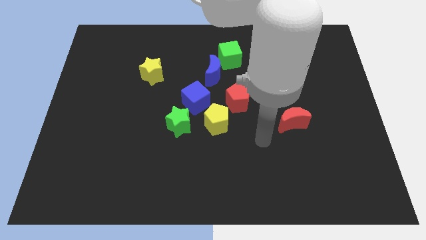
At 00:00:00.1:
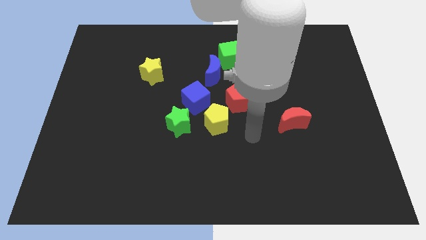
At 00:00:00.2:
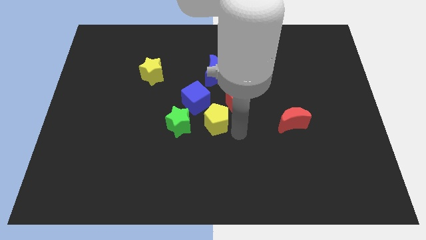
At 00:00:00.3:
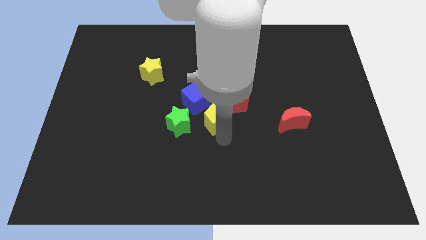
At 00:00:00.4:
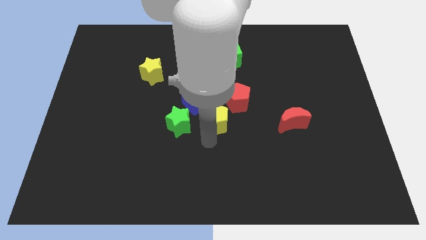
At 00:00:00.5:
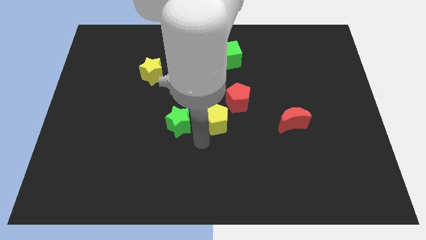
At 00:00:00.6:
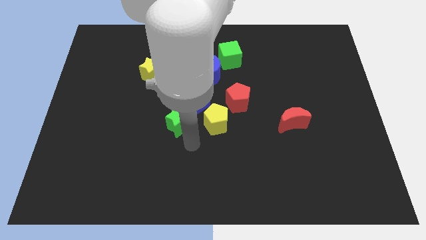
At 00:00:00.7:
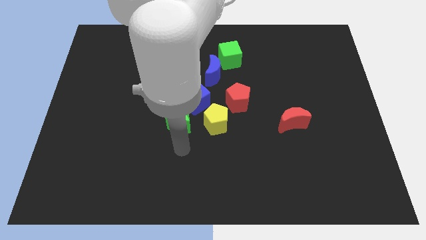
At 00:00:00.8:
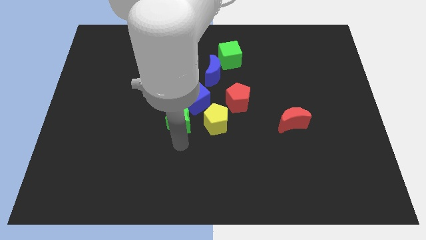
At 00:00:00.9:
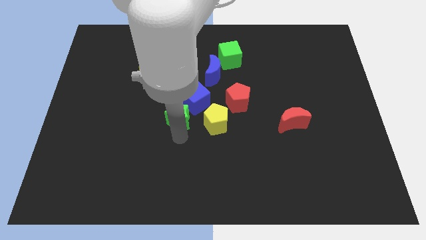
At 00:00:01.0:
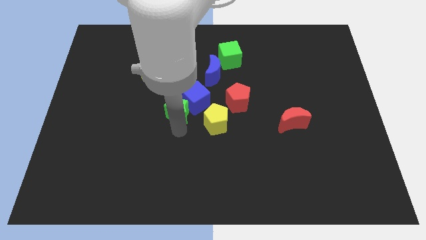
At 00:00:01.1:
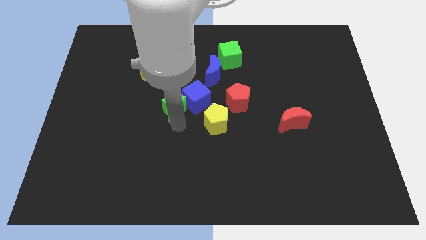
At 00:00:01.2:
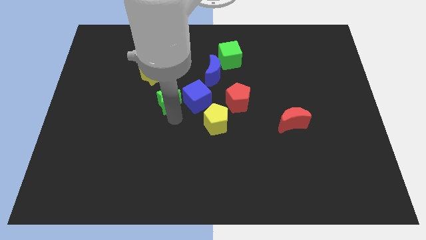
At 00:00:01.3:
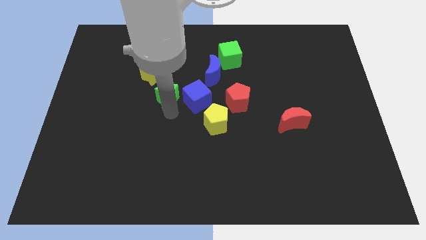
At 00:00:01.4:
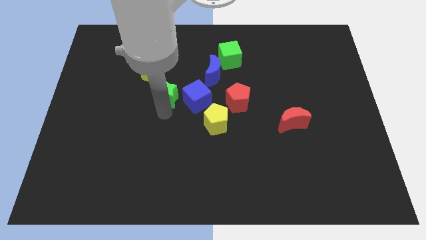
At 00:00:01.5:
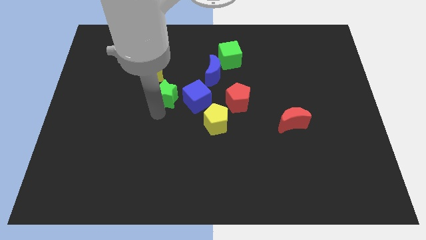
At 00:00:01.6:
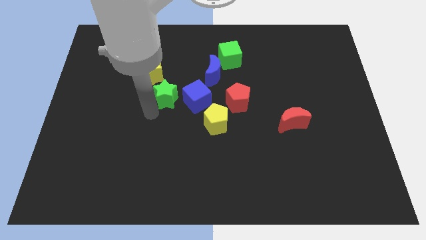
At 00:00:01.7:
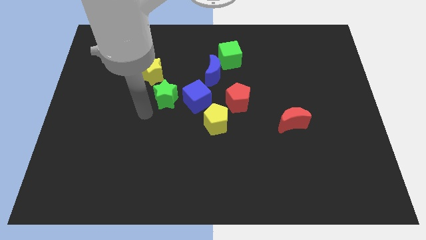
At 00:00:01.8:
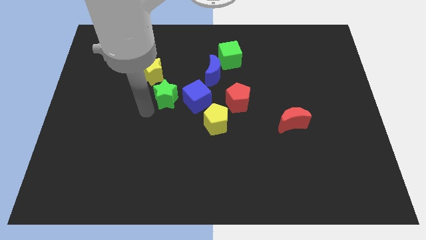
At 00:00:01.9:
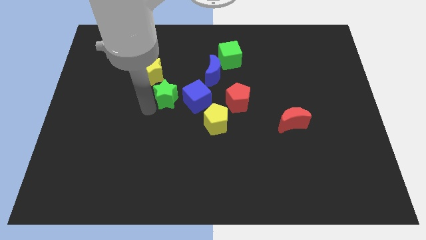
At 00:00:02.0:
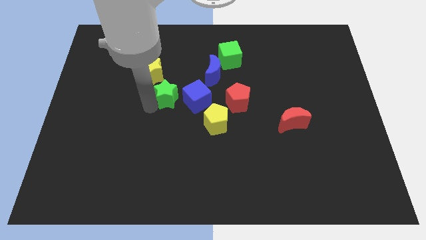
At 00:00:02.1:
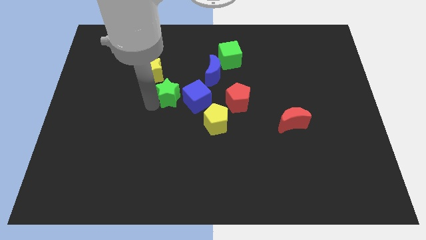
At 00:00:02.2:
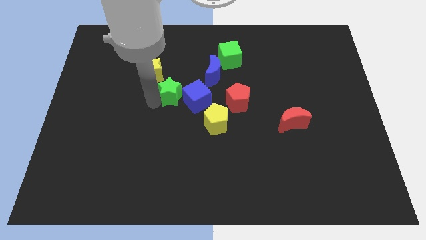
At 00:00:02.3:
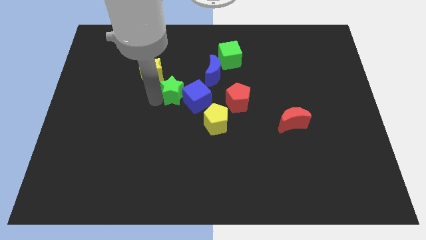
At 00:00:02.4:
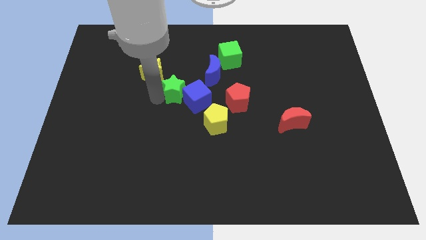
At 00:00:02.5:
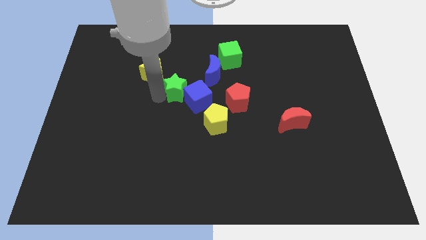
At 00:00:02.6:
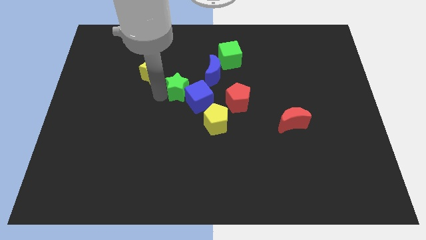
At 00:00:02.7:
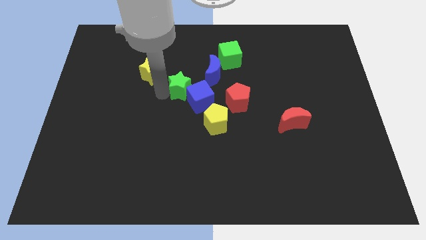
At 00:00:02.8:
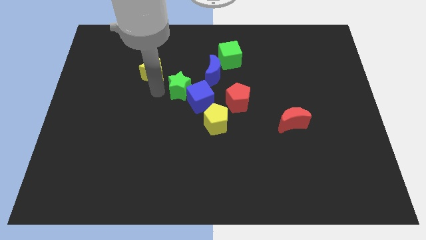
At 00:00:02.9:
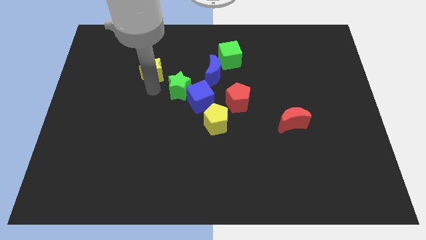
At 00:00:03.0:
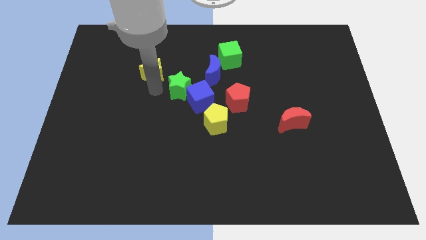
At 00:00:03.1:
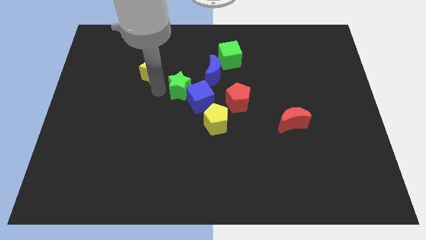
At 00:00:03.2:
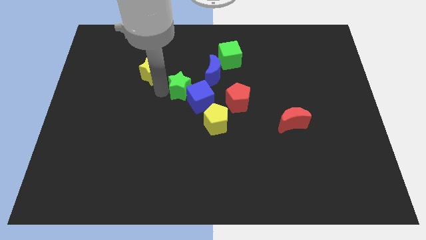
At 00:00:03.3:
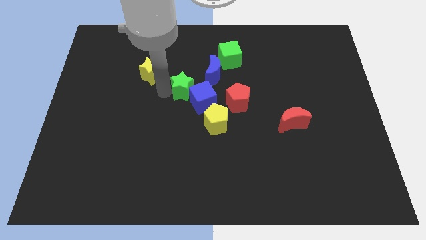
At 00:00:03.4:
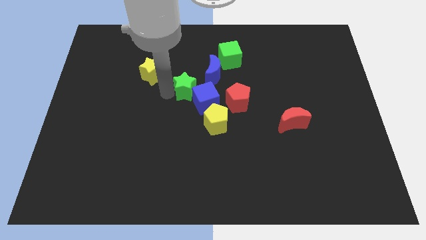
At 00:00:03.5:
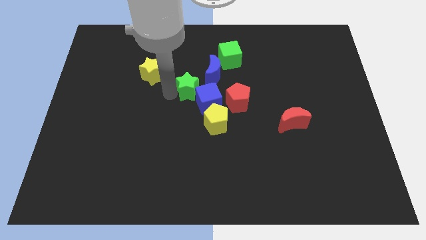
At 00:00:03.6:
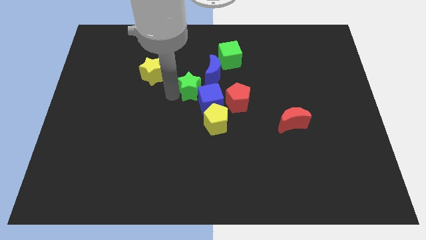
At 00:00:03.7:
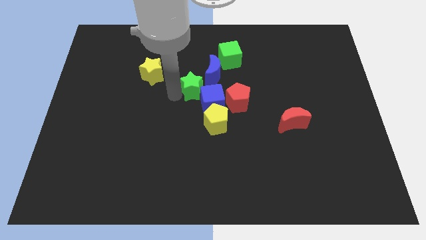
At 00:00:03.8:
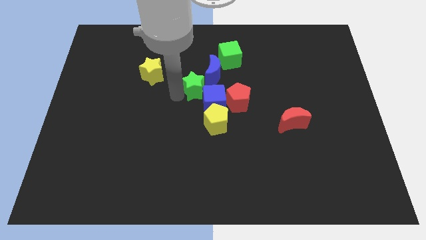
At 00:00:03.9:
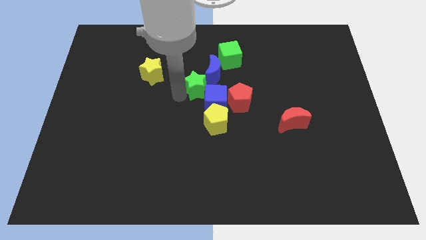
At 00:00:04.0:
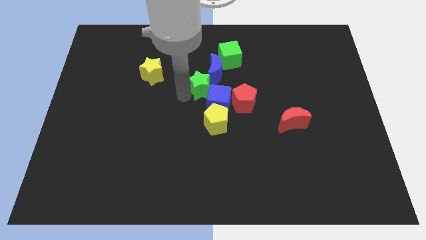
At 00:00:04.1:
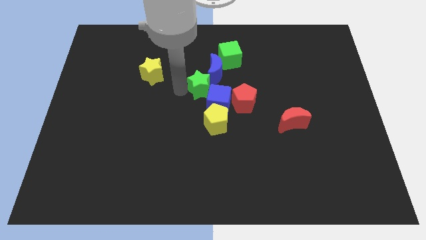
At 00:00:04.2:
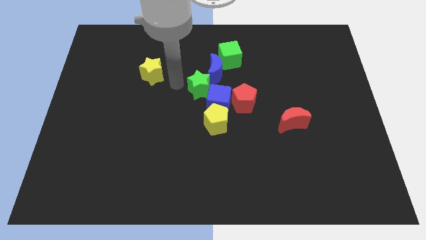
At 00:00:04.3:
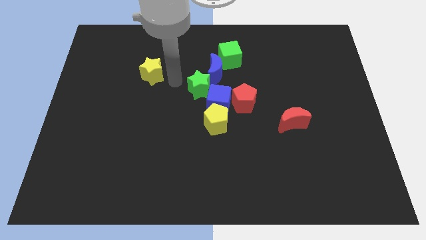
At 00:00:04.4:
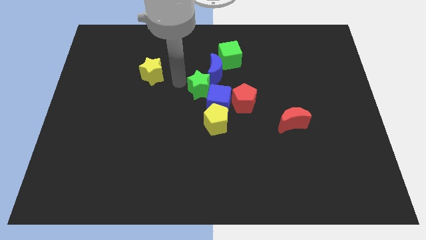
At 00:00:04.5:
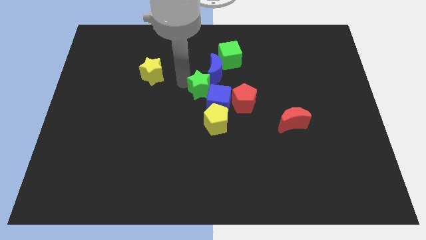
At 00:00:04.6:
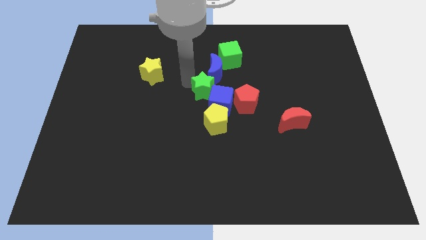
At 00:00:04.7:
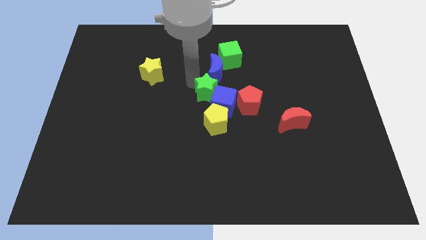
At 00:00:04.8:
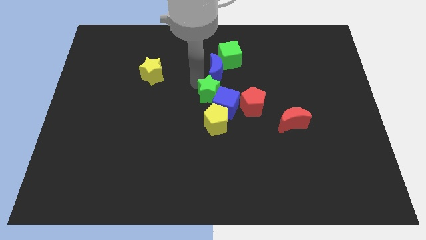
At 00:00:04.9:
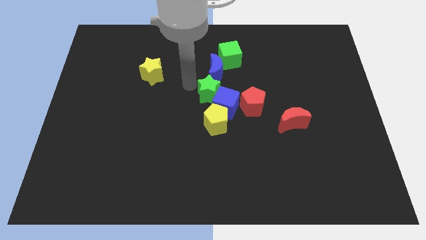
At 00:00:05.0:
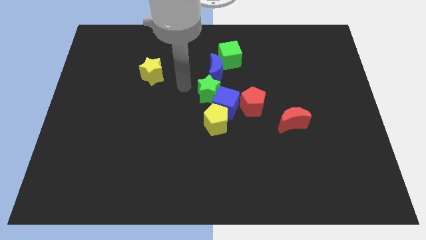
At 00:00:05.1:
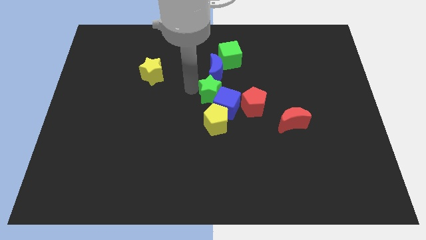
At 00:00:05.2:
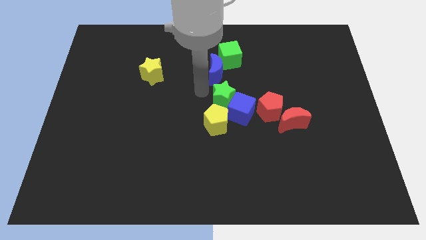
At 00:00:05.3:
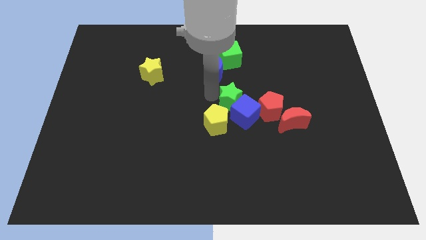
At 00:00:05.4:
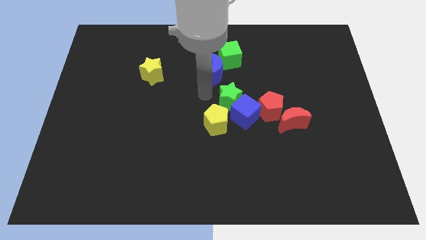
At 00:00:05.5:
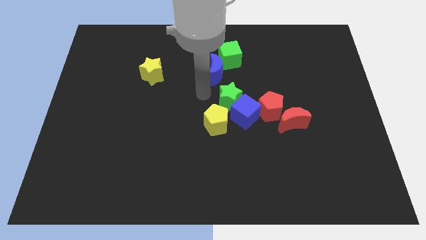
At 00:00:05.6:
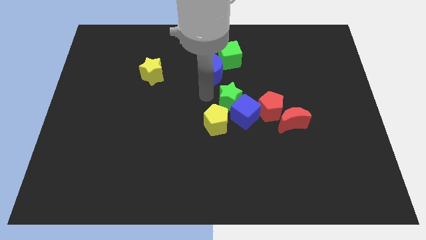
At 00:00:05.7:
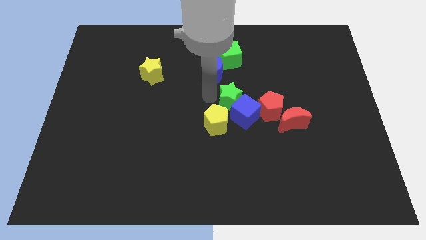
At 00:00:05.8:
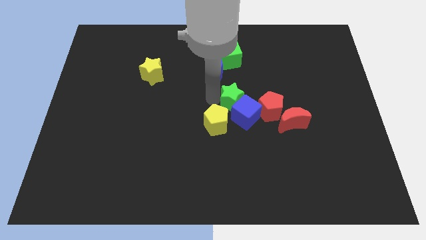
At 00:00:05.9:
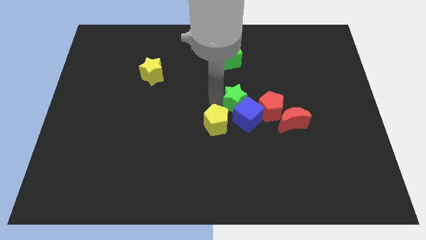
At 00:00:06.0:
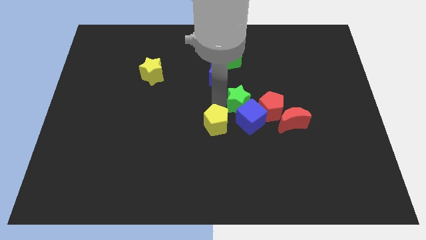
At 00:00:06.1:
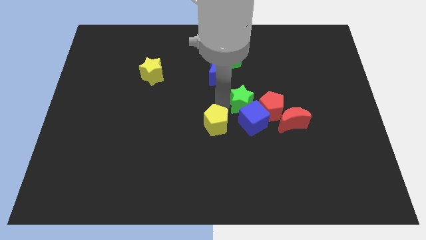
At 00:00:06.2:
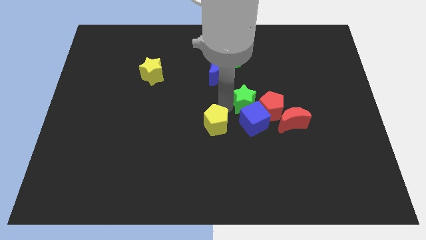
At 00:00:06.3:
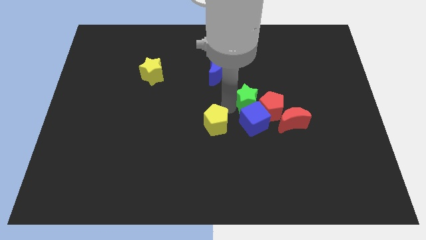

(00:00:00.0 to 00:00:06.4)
put the green star next to the red pentagon

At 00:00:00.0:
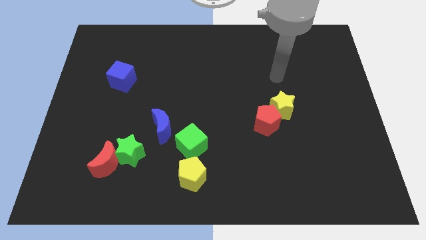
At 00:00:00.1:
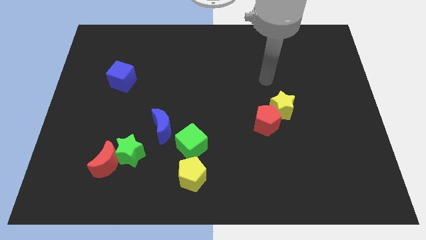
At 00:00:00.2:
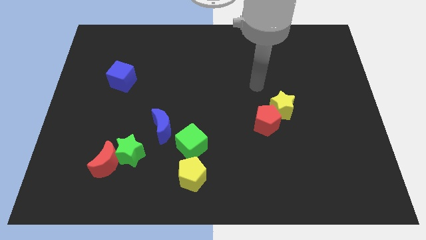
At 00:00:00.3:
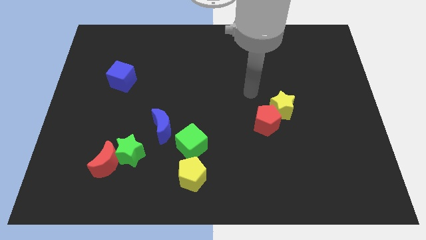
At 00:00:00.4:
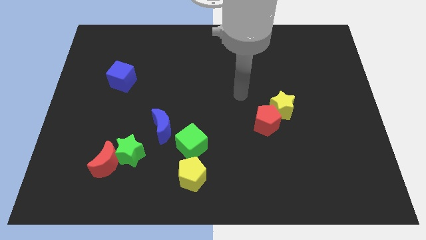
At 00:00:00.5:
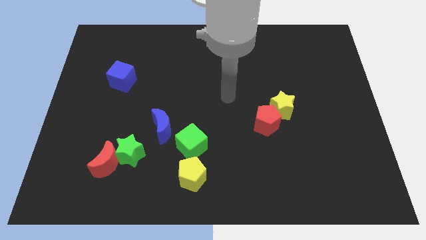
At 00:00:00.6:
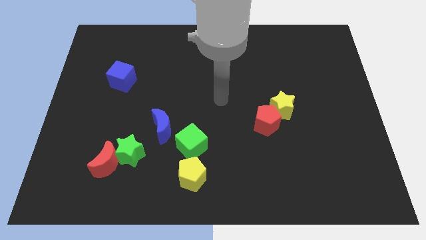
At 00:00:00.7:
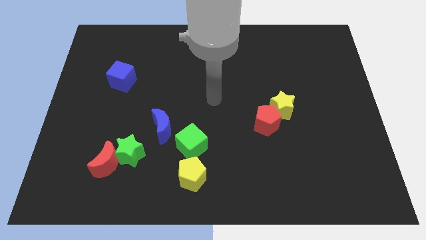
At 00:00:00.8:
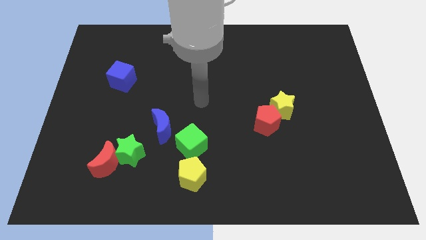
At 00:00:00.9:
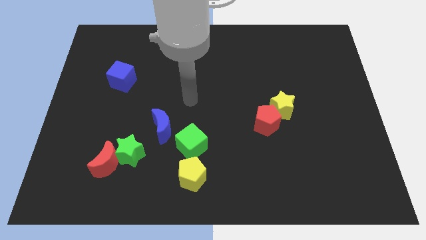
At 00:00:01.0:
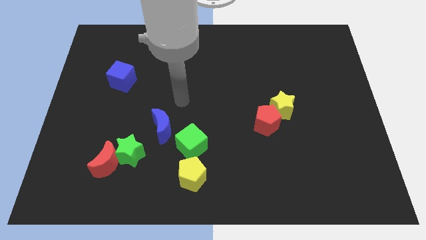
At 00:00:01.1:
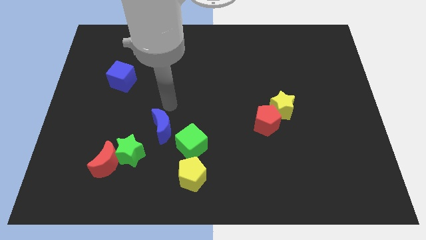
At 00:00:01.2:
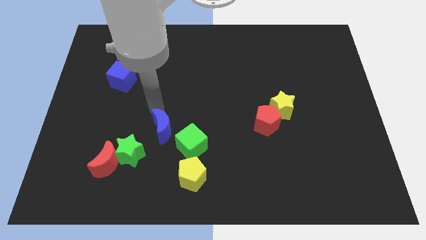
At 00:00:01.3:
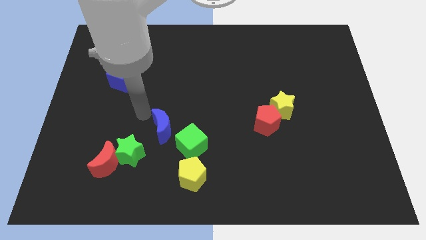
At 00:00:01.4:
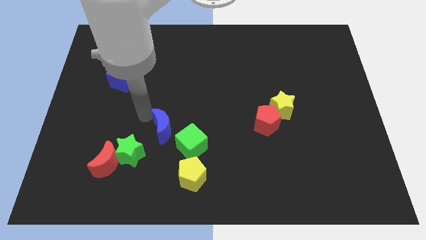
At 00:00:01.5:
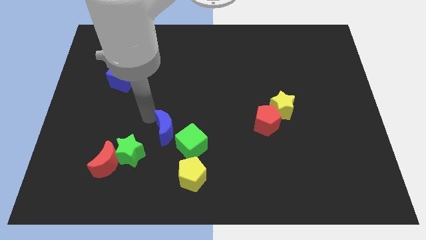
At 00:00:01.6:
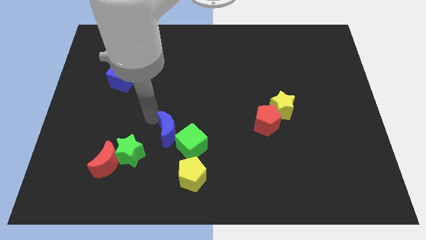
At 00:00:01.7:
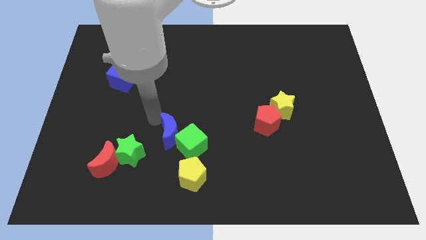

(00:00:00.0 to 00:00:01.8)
put the blue moon close to the green cube
